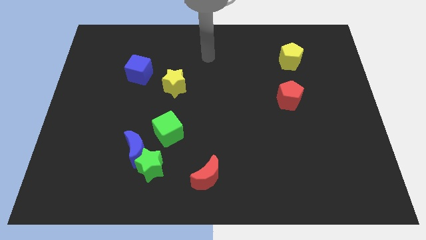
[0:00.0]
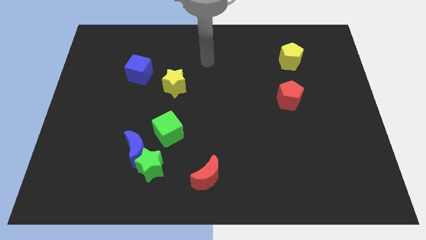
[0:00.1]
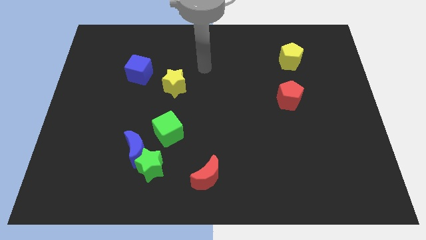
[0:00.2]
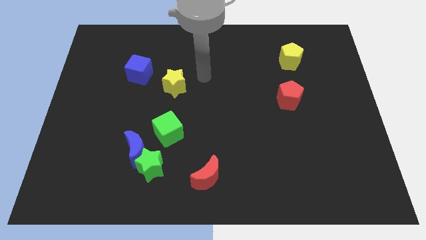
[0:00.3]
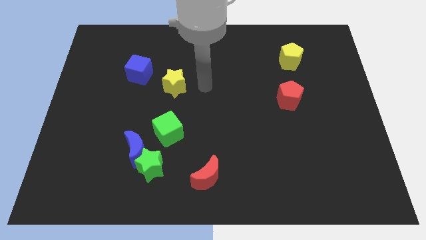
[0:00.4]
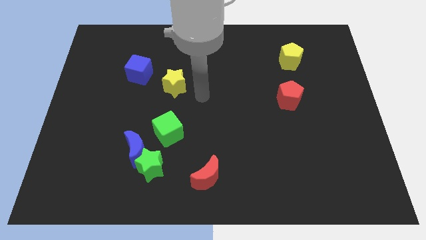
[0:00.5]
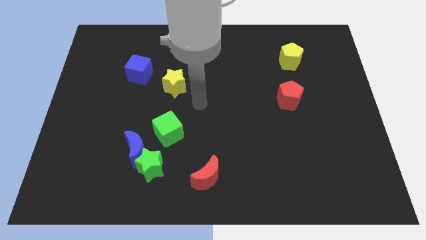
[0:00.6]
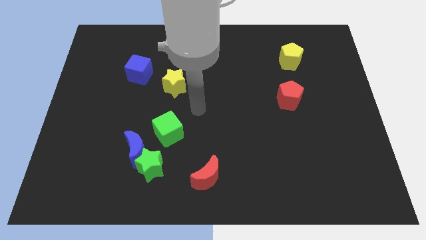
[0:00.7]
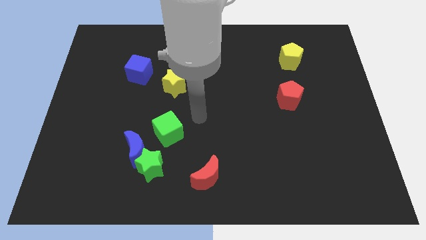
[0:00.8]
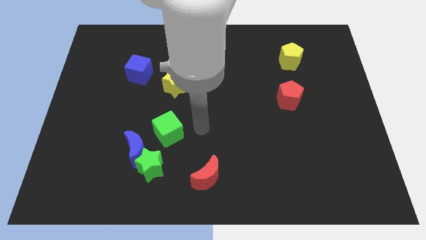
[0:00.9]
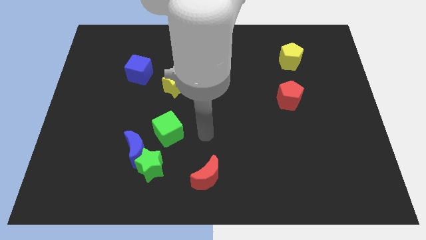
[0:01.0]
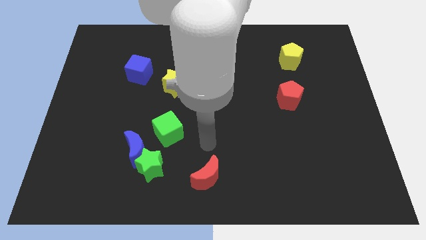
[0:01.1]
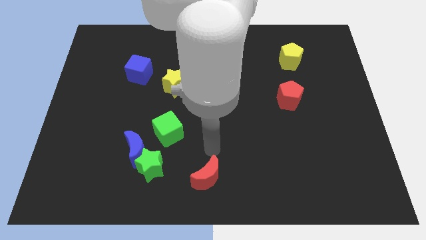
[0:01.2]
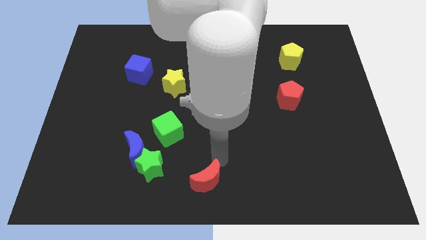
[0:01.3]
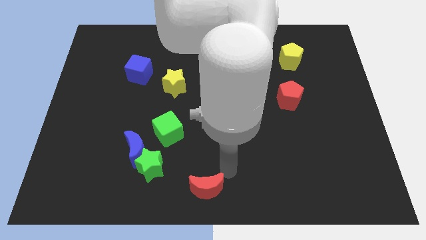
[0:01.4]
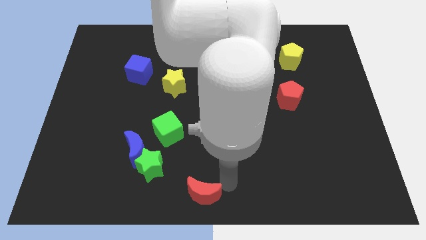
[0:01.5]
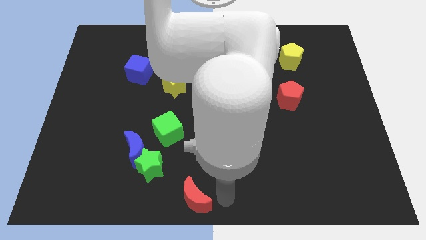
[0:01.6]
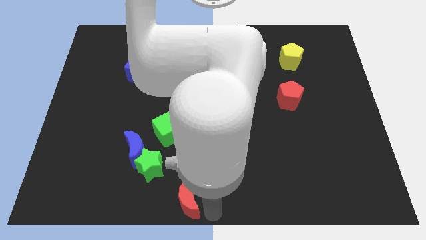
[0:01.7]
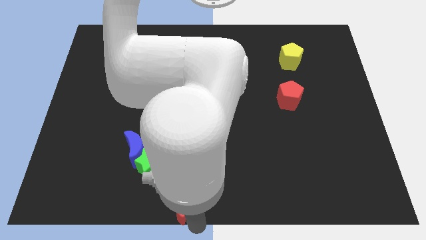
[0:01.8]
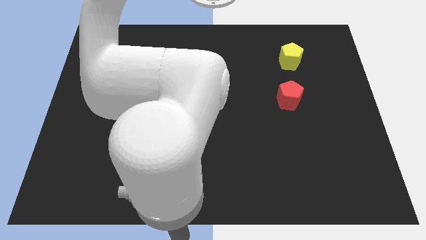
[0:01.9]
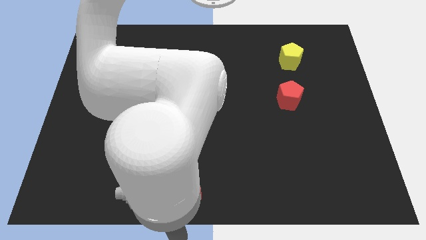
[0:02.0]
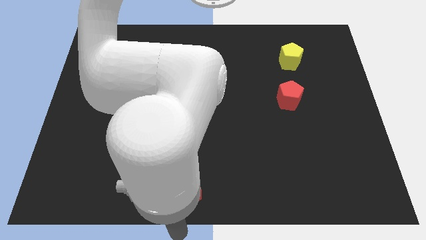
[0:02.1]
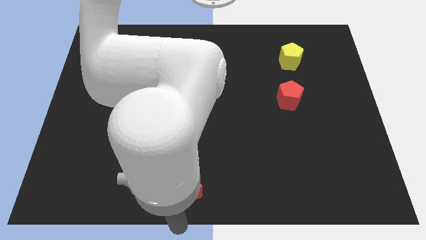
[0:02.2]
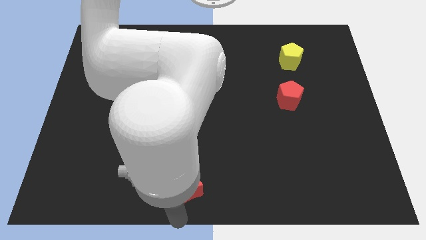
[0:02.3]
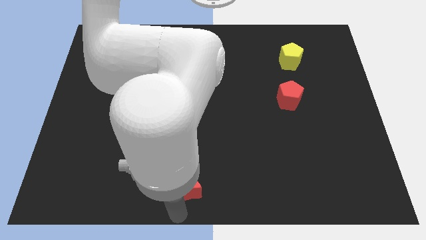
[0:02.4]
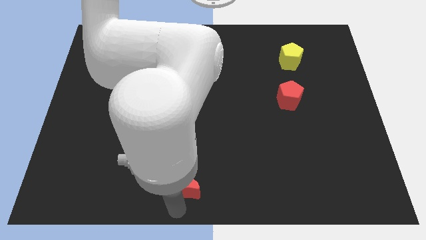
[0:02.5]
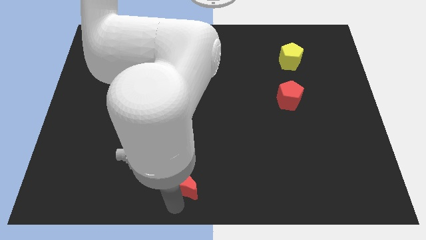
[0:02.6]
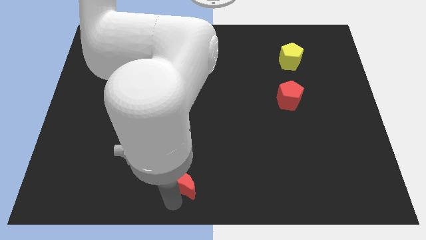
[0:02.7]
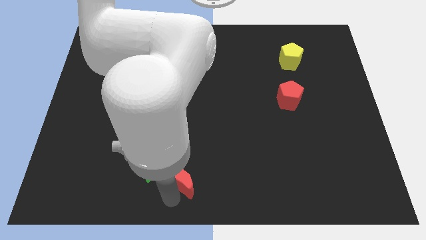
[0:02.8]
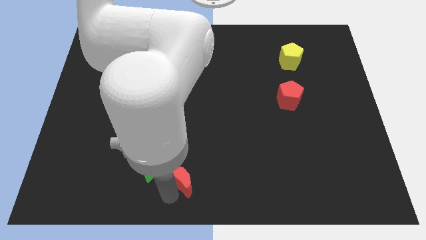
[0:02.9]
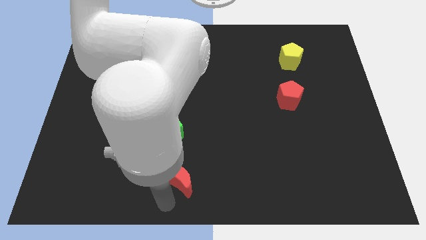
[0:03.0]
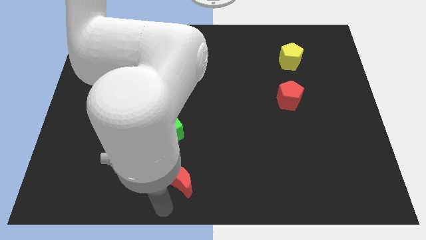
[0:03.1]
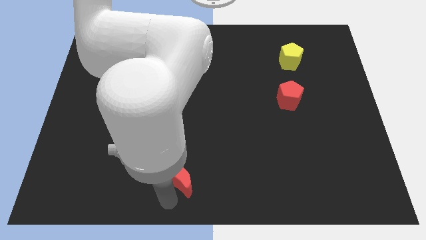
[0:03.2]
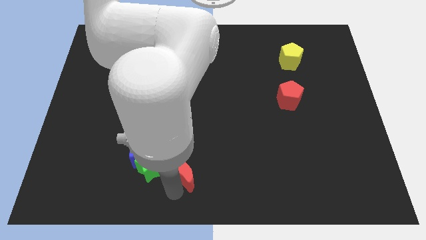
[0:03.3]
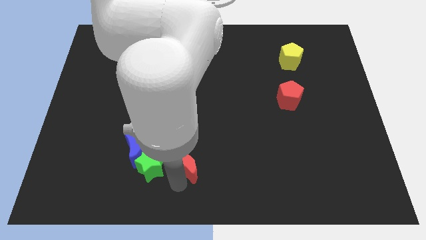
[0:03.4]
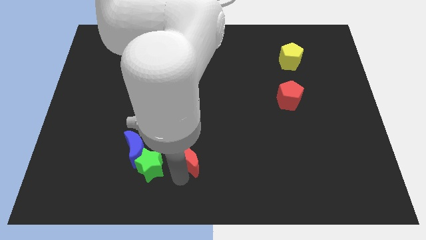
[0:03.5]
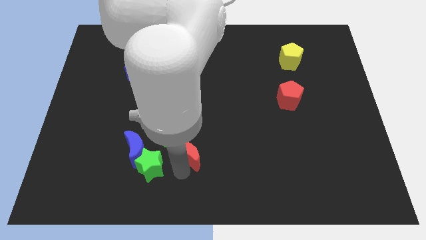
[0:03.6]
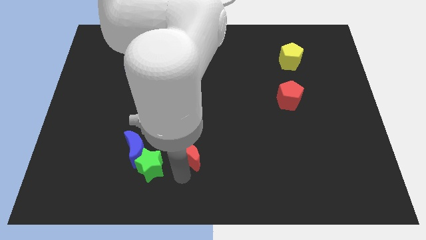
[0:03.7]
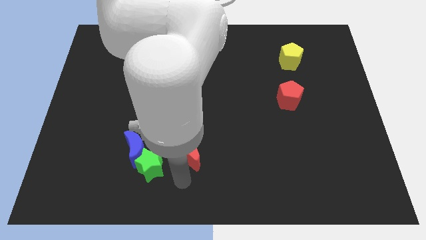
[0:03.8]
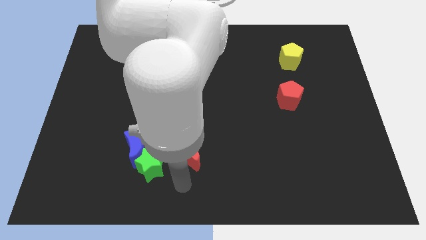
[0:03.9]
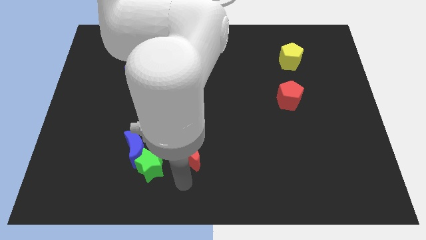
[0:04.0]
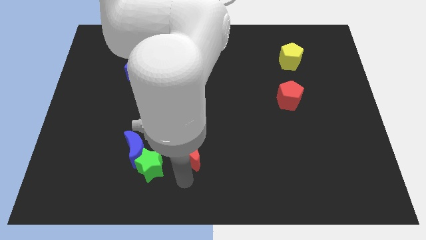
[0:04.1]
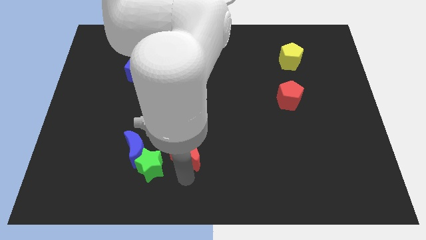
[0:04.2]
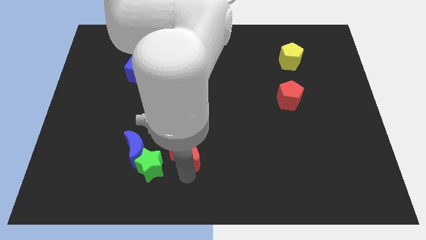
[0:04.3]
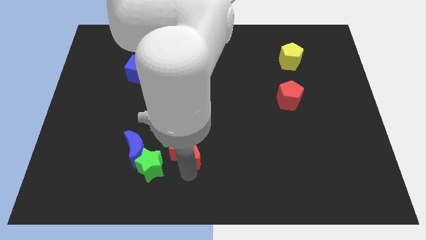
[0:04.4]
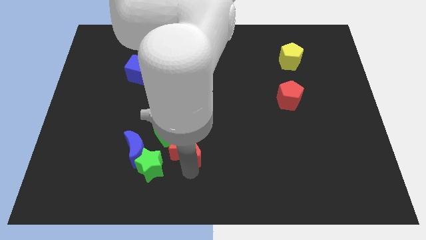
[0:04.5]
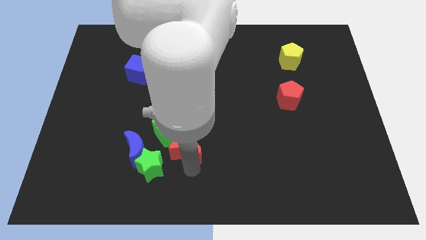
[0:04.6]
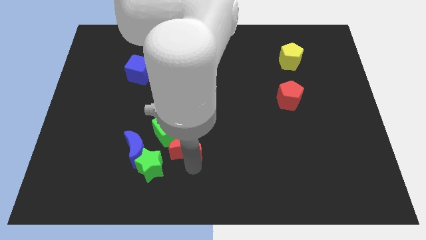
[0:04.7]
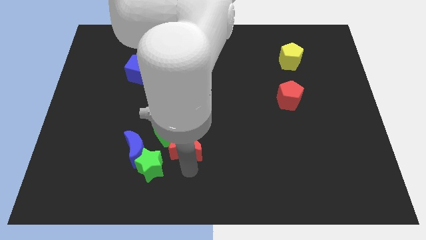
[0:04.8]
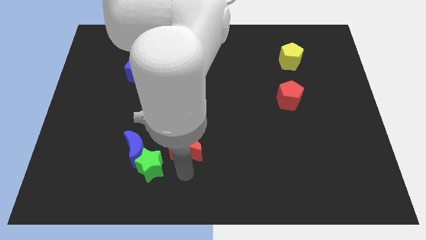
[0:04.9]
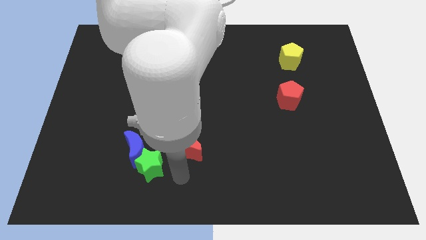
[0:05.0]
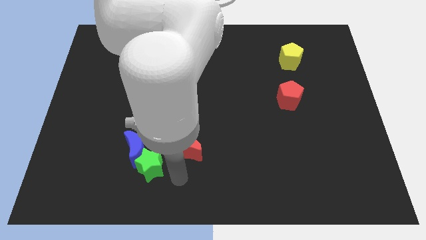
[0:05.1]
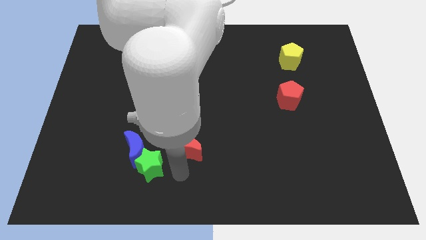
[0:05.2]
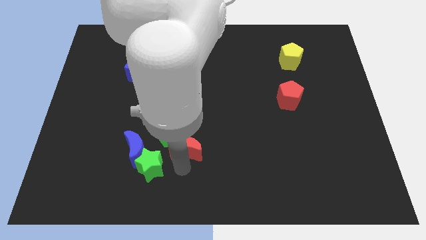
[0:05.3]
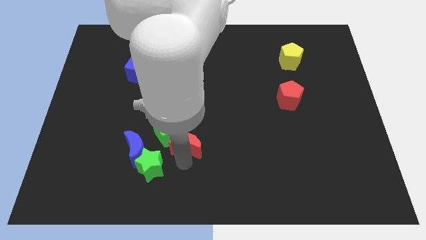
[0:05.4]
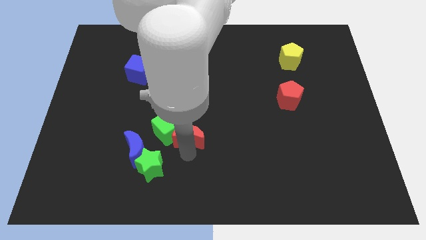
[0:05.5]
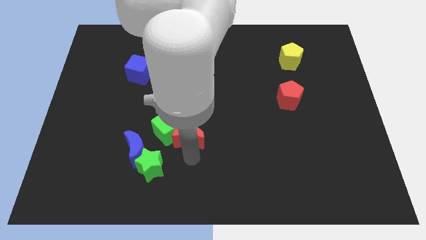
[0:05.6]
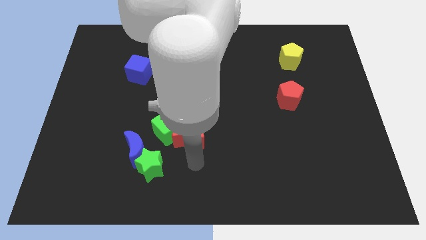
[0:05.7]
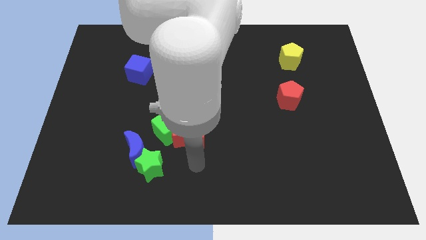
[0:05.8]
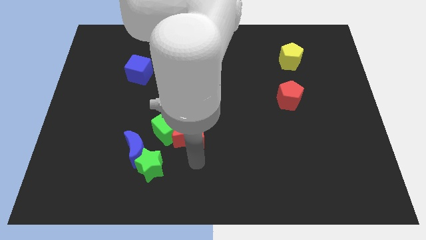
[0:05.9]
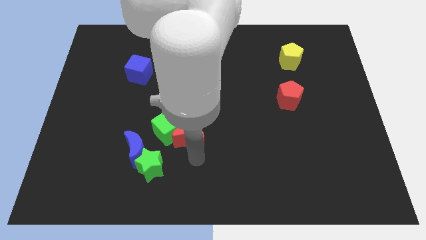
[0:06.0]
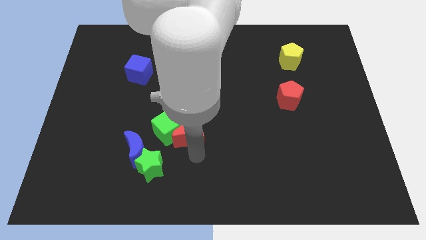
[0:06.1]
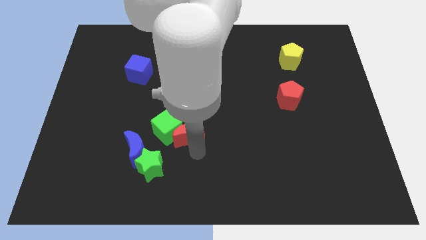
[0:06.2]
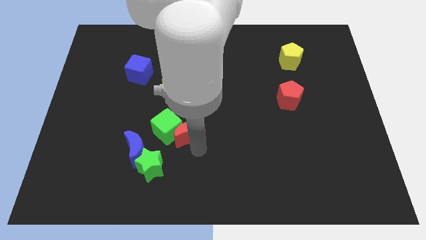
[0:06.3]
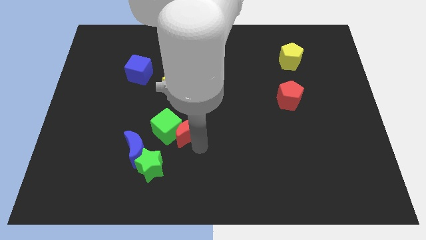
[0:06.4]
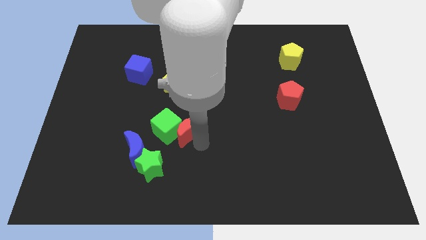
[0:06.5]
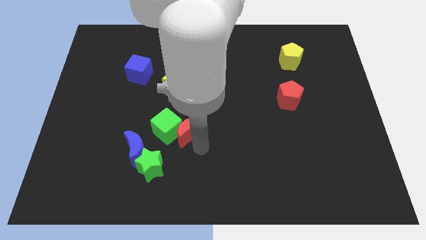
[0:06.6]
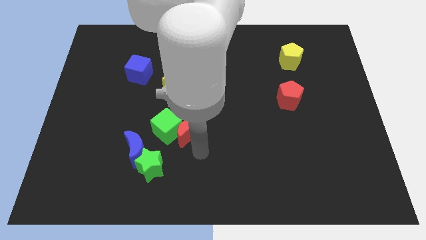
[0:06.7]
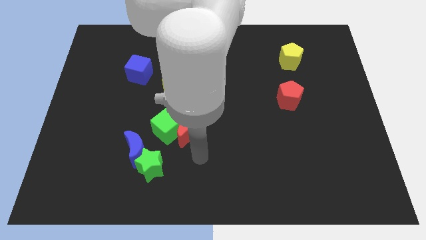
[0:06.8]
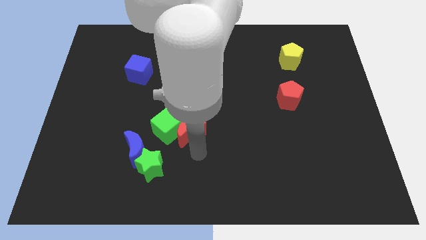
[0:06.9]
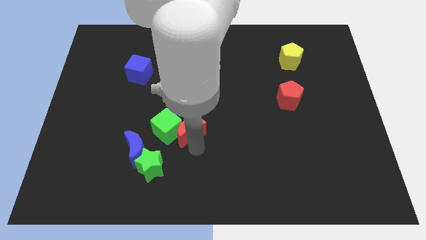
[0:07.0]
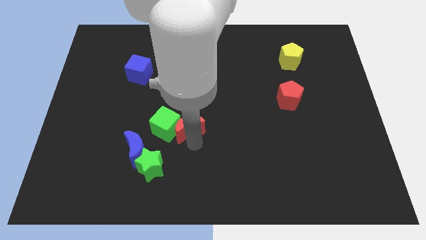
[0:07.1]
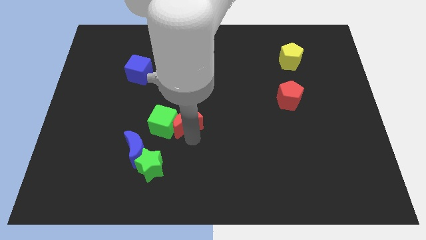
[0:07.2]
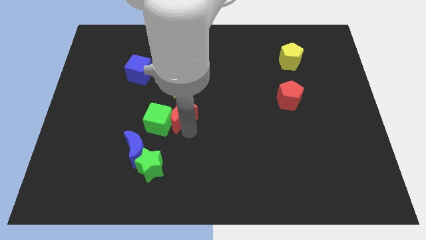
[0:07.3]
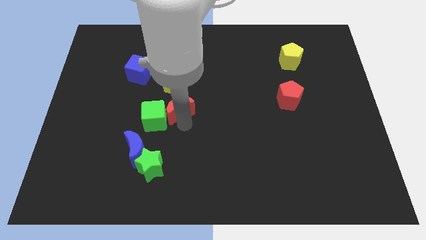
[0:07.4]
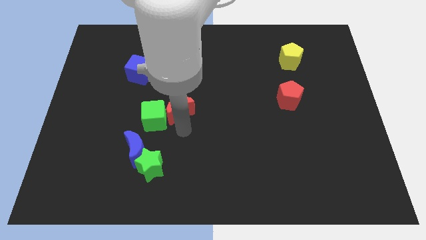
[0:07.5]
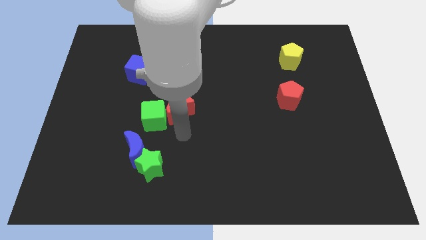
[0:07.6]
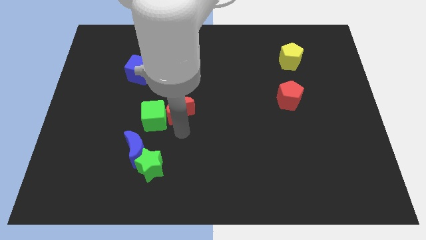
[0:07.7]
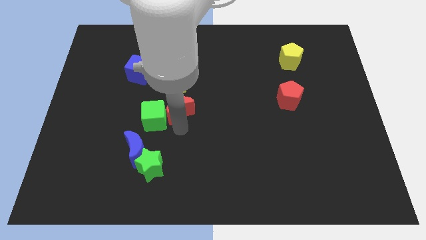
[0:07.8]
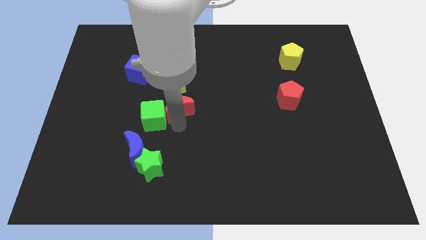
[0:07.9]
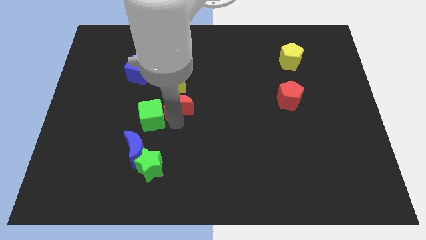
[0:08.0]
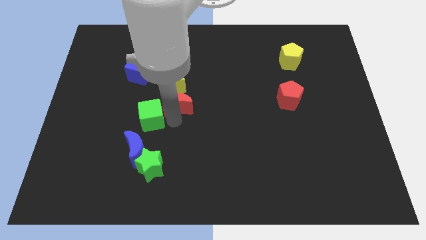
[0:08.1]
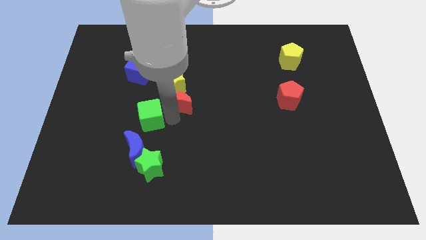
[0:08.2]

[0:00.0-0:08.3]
put the red moon next to the yellow star

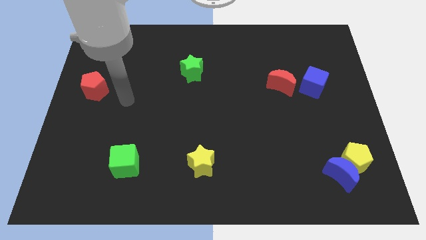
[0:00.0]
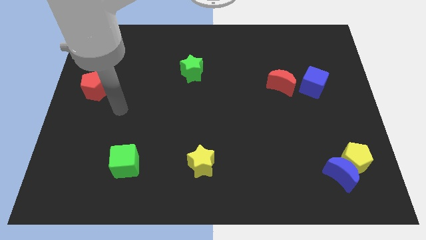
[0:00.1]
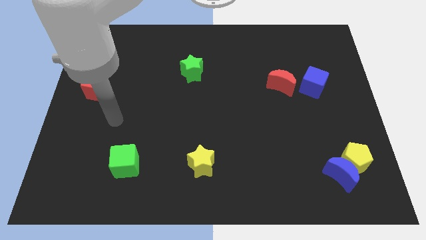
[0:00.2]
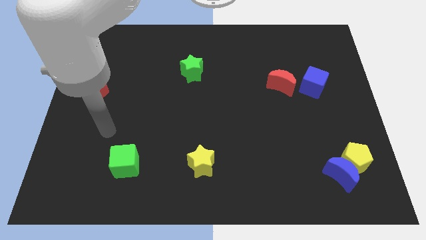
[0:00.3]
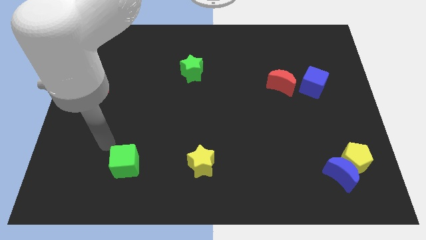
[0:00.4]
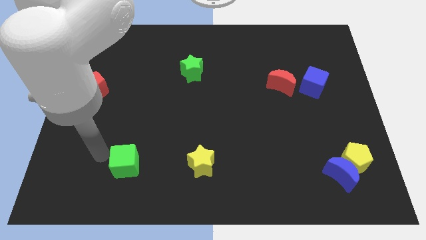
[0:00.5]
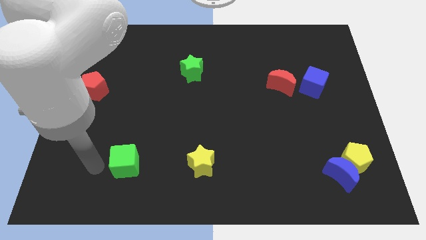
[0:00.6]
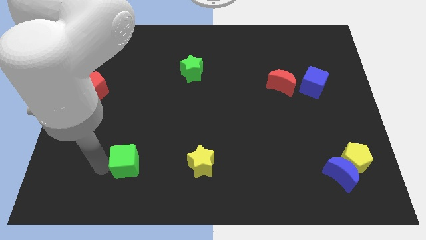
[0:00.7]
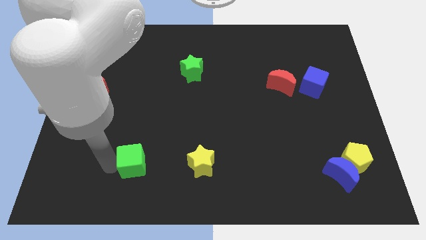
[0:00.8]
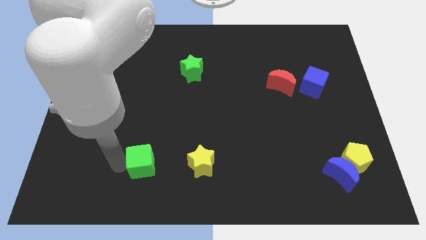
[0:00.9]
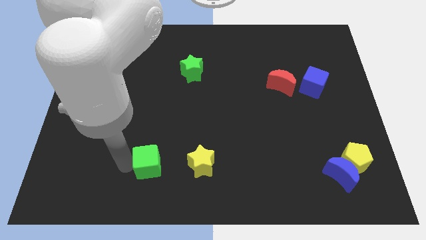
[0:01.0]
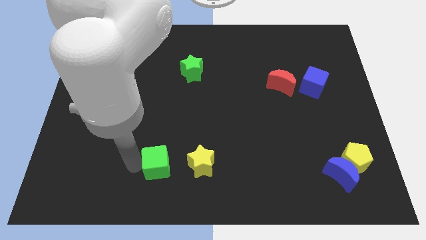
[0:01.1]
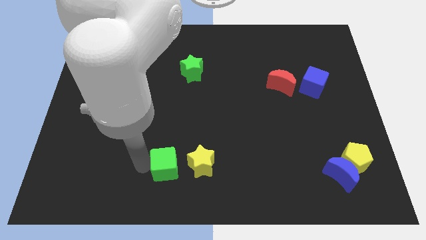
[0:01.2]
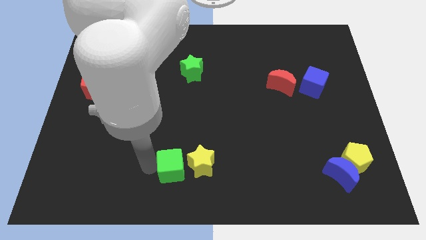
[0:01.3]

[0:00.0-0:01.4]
move the green cube towards the yellow star
